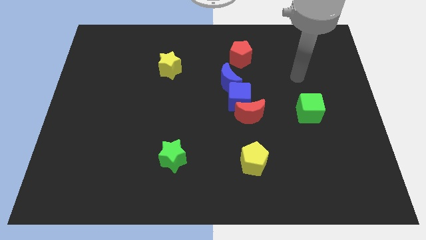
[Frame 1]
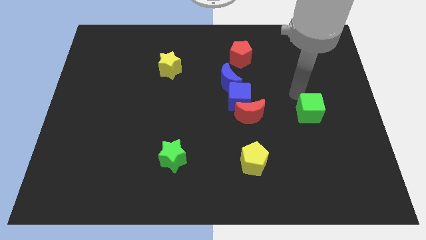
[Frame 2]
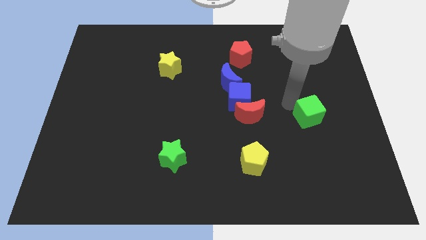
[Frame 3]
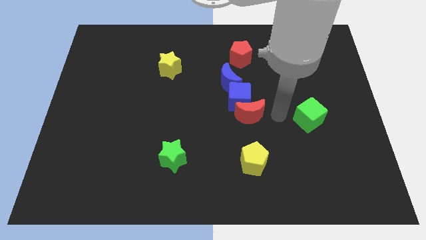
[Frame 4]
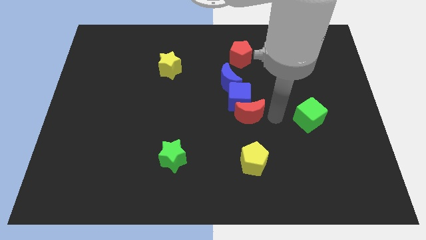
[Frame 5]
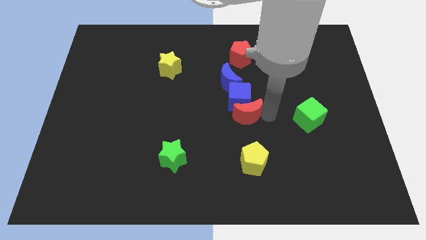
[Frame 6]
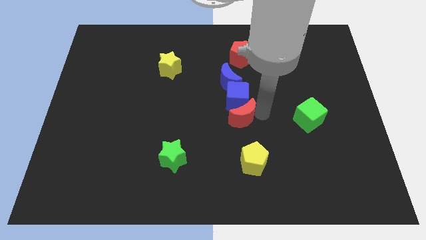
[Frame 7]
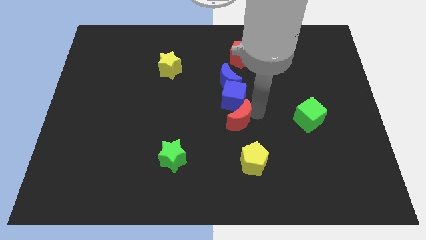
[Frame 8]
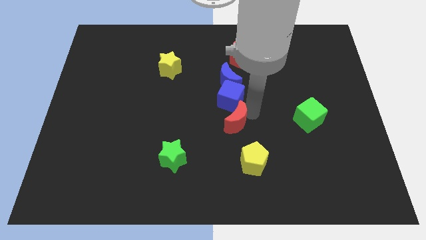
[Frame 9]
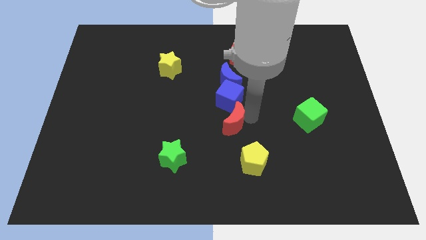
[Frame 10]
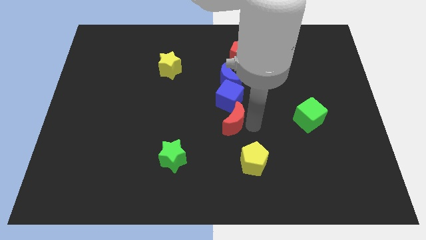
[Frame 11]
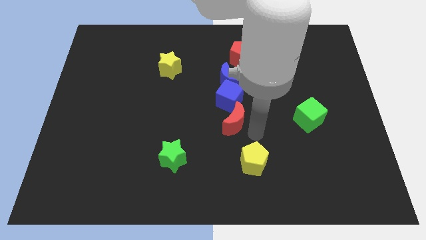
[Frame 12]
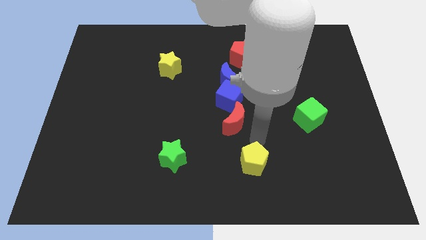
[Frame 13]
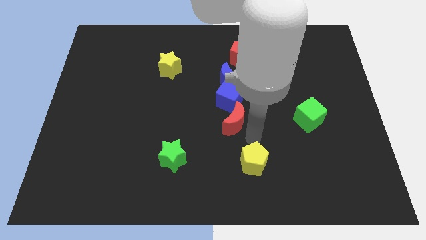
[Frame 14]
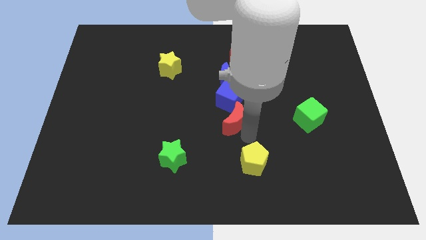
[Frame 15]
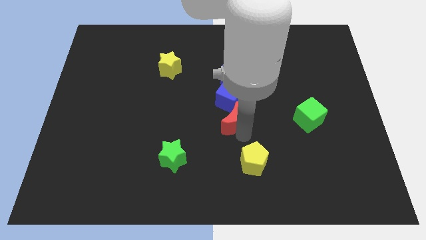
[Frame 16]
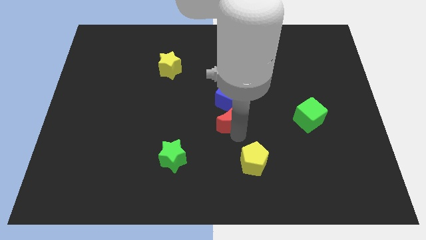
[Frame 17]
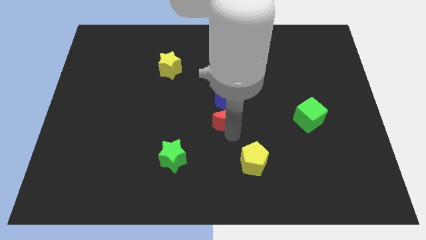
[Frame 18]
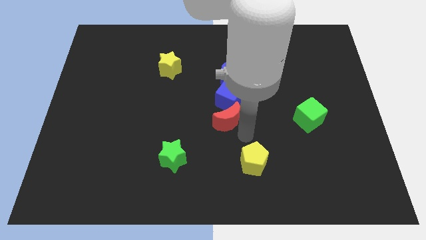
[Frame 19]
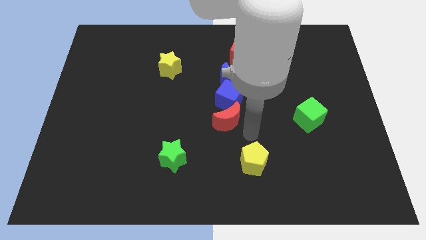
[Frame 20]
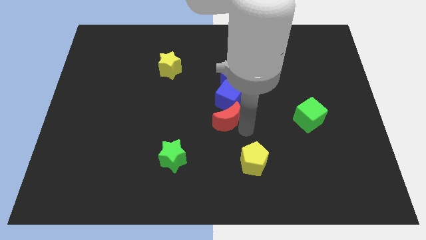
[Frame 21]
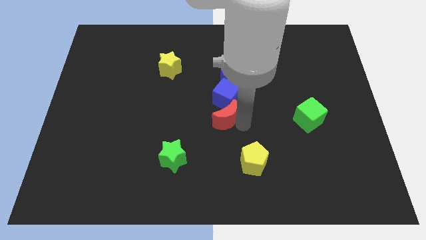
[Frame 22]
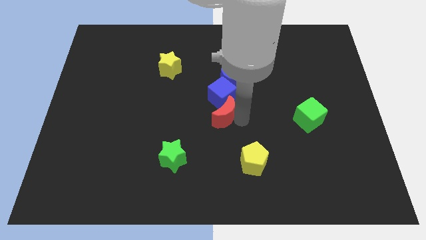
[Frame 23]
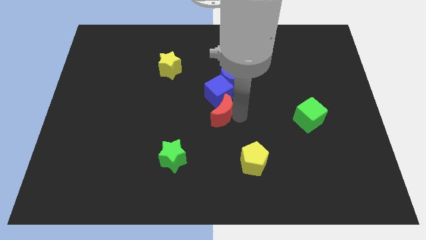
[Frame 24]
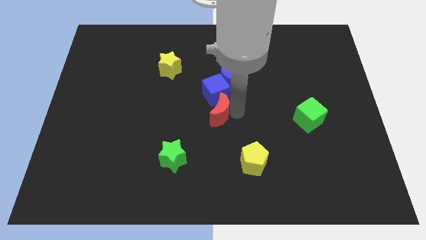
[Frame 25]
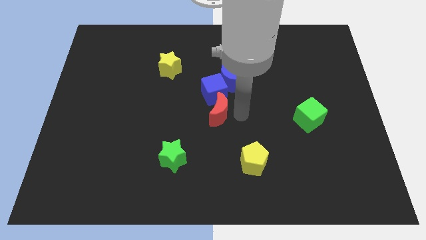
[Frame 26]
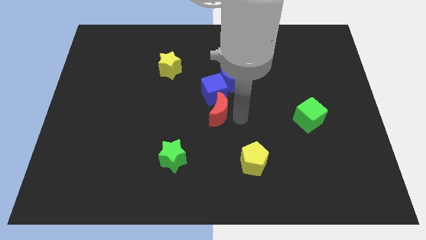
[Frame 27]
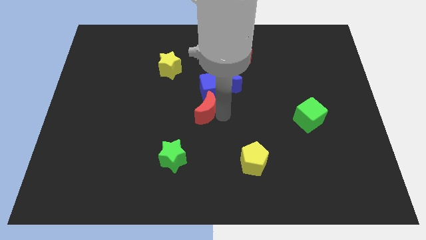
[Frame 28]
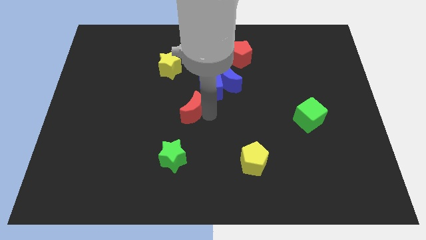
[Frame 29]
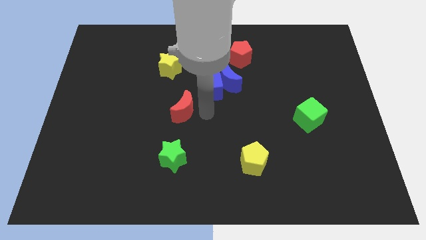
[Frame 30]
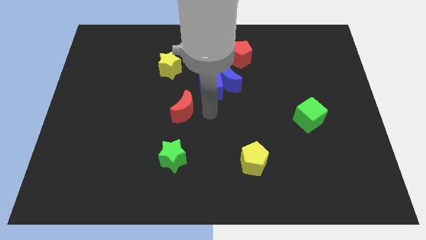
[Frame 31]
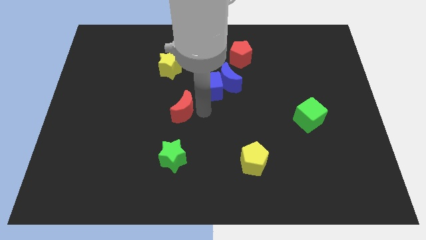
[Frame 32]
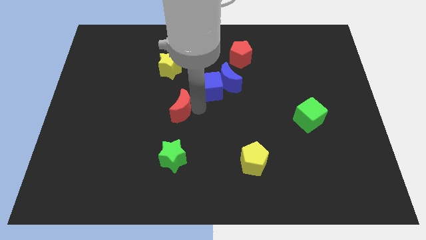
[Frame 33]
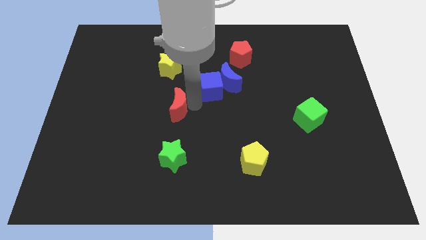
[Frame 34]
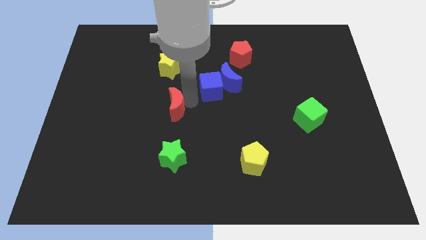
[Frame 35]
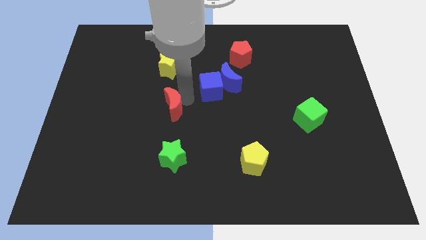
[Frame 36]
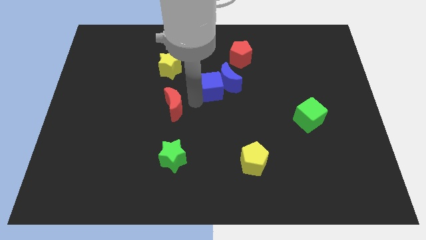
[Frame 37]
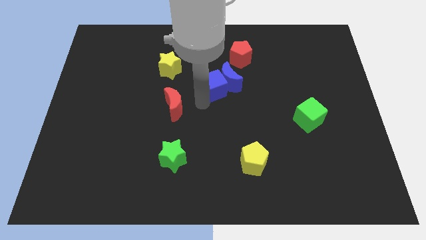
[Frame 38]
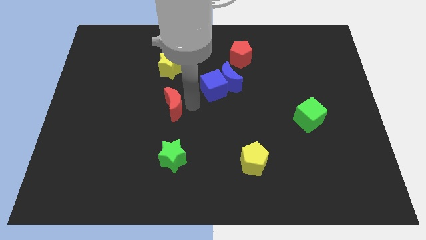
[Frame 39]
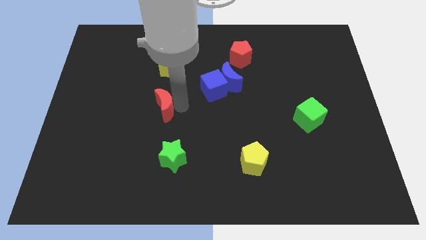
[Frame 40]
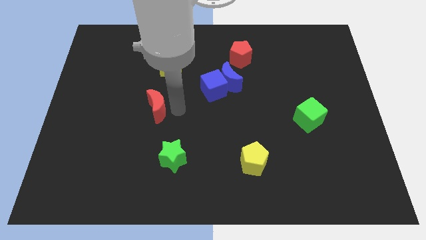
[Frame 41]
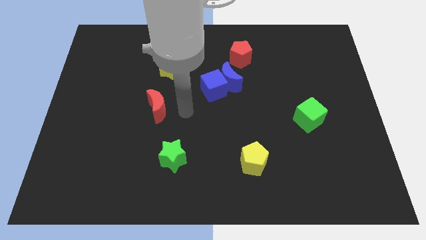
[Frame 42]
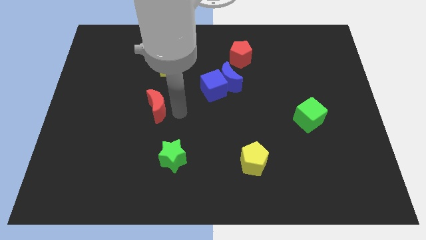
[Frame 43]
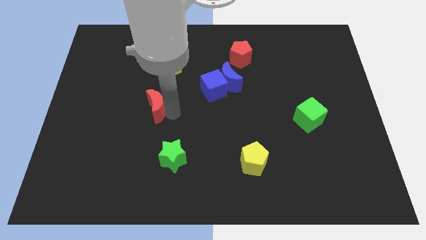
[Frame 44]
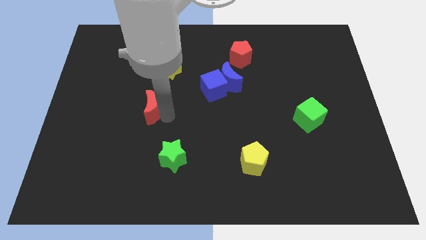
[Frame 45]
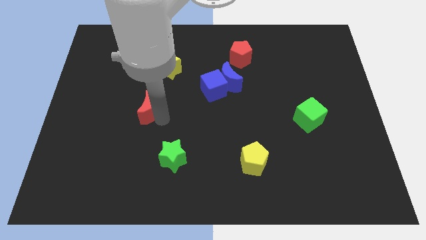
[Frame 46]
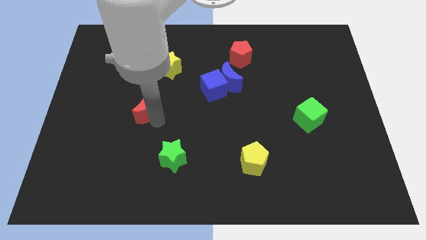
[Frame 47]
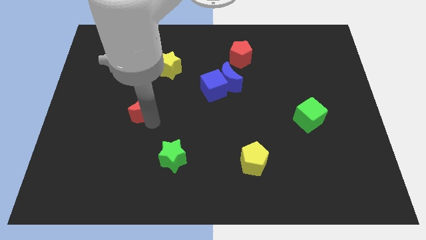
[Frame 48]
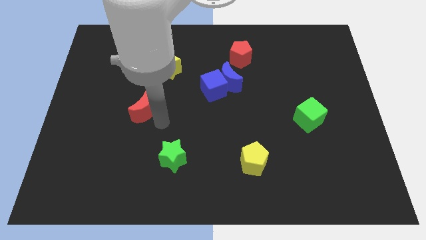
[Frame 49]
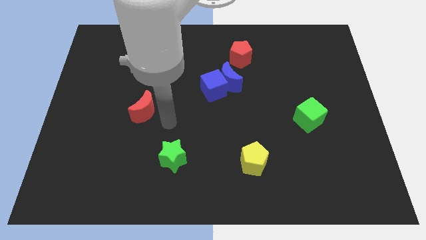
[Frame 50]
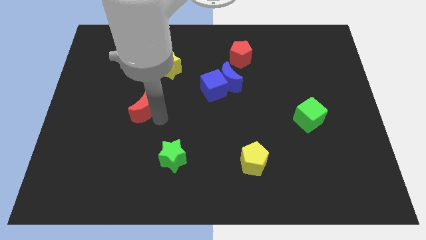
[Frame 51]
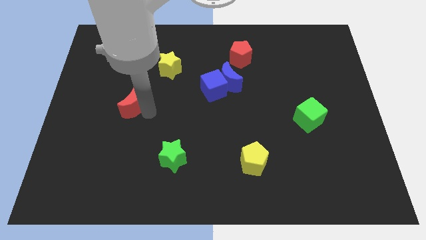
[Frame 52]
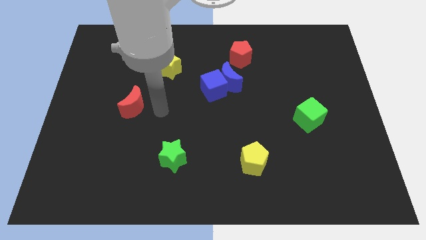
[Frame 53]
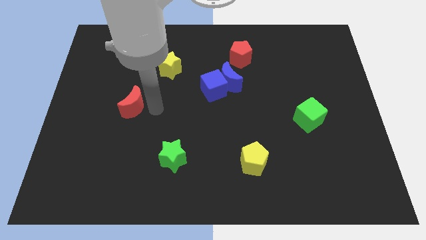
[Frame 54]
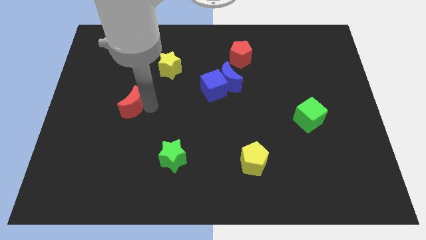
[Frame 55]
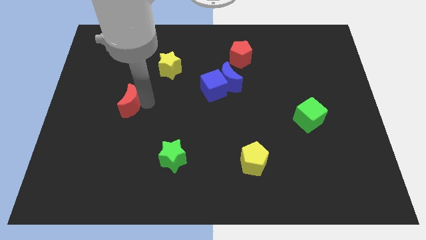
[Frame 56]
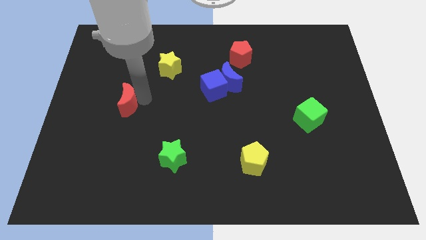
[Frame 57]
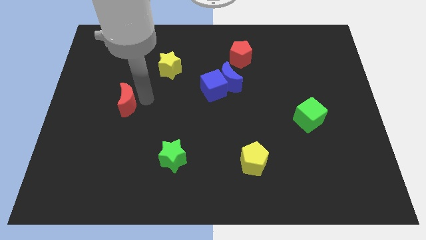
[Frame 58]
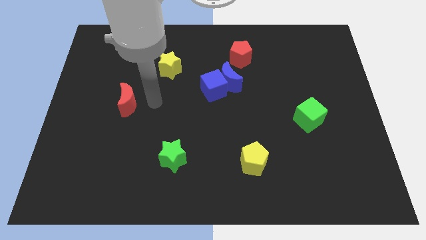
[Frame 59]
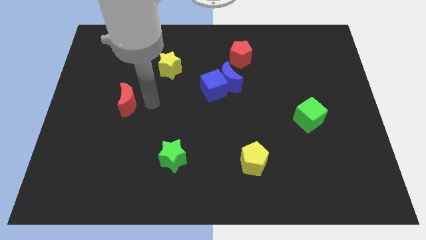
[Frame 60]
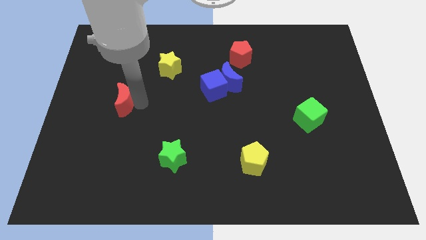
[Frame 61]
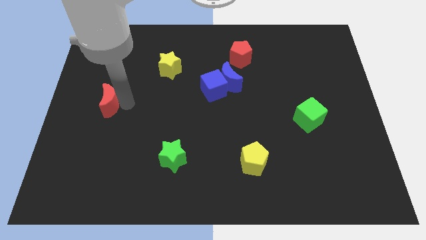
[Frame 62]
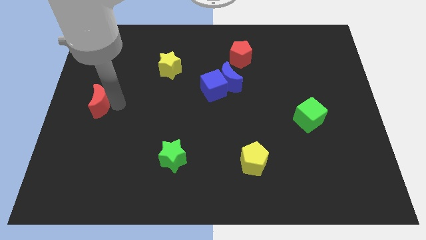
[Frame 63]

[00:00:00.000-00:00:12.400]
put the red moon to the left side
